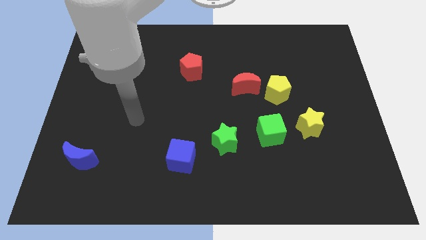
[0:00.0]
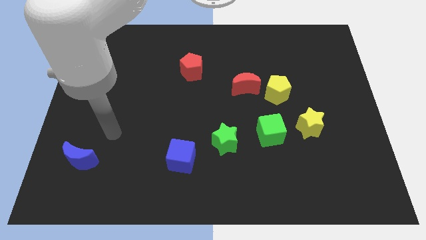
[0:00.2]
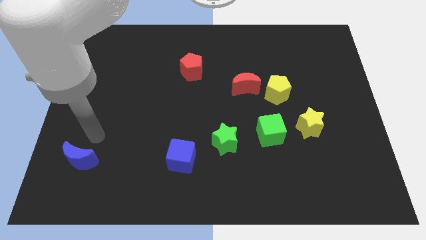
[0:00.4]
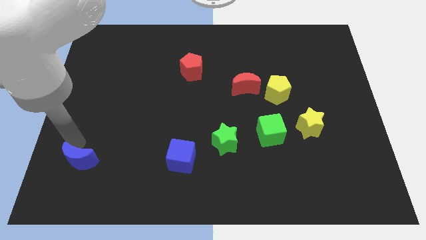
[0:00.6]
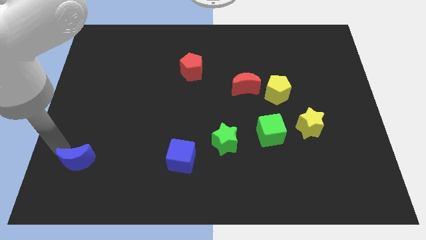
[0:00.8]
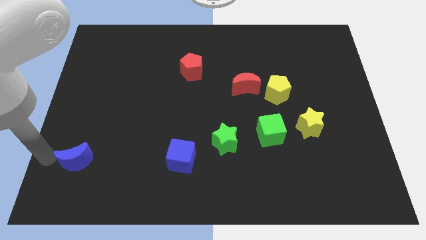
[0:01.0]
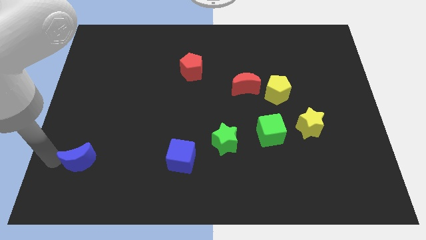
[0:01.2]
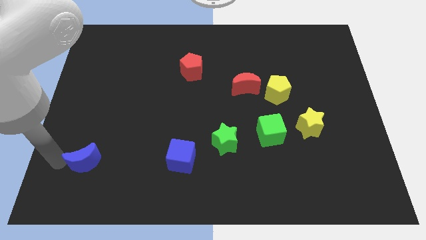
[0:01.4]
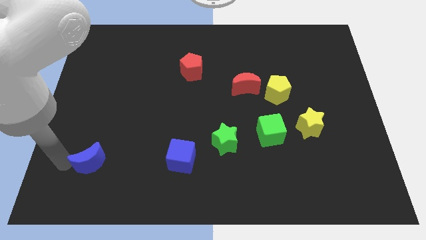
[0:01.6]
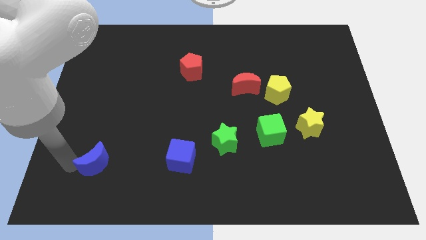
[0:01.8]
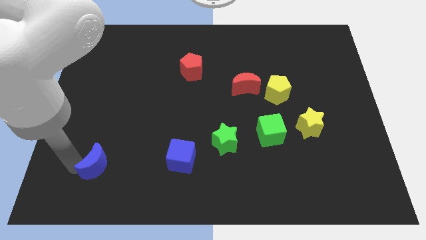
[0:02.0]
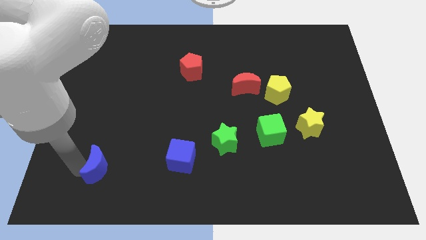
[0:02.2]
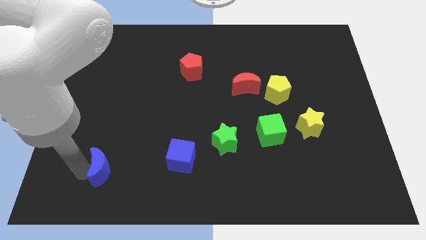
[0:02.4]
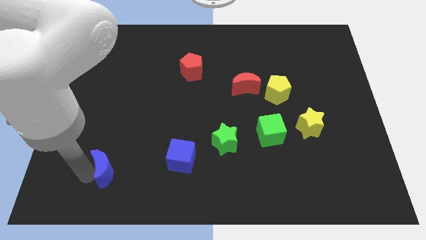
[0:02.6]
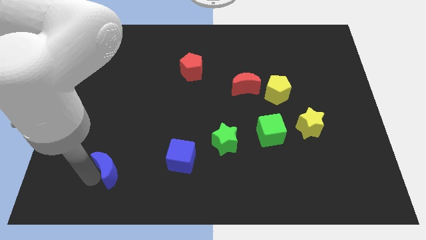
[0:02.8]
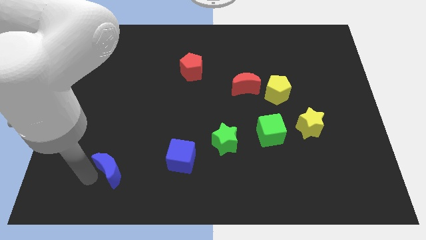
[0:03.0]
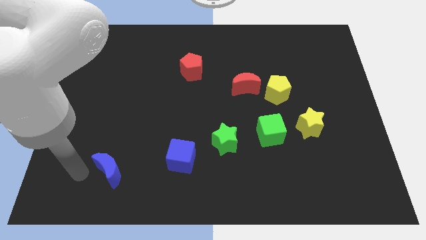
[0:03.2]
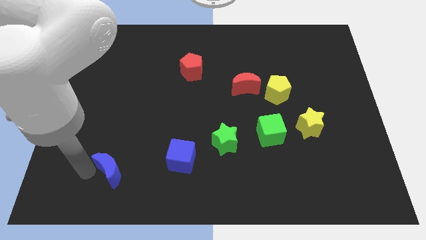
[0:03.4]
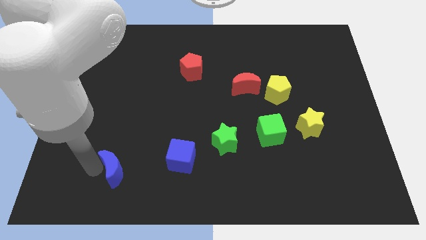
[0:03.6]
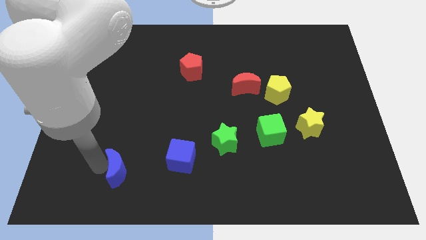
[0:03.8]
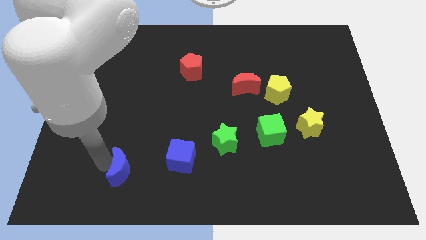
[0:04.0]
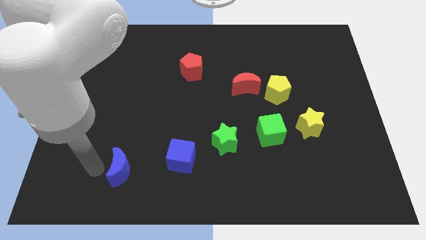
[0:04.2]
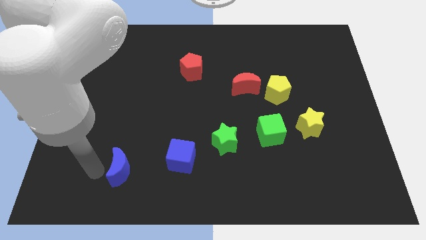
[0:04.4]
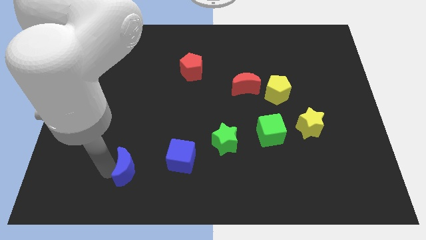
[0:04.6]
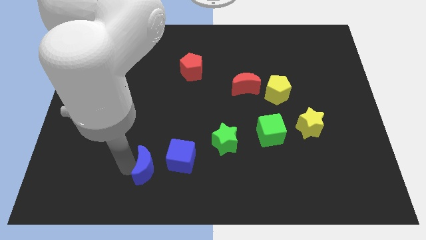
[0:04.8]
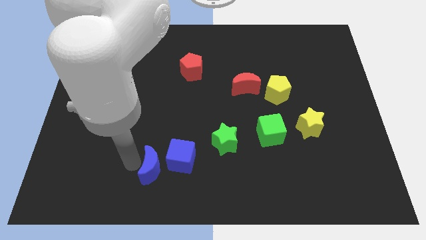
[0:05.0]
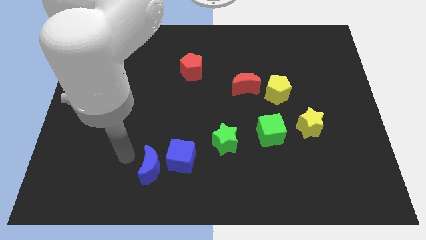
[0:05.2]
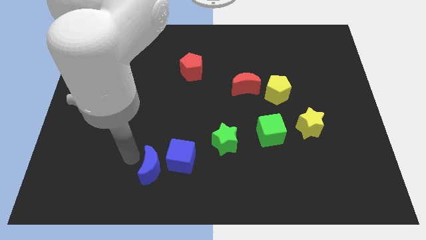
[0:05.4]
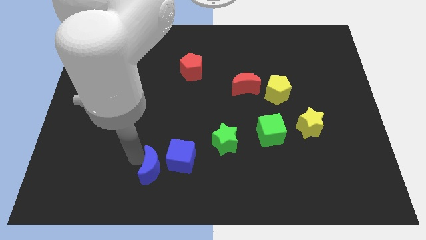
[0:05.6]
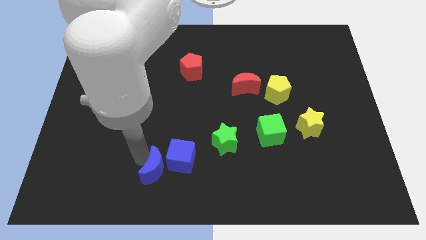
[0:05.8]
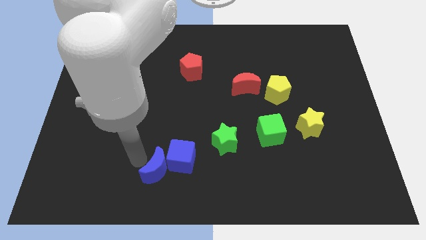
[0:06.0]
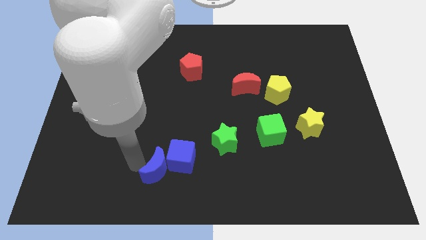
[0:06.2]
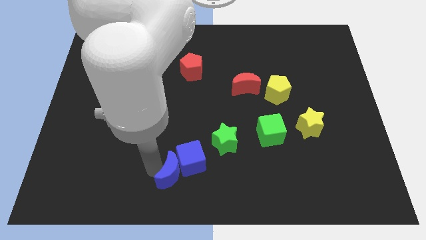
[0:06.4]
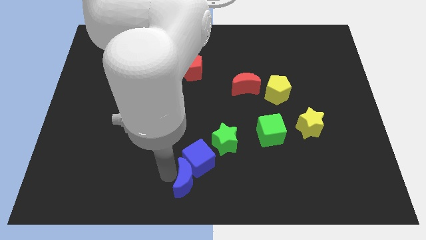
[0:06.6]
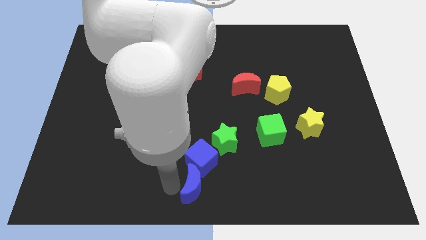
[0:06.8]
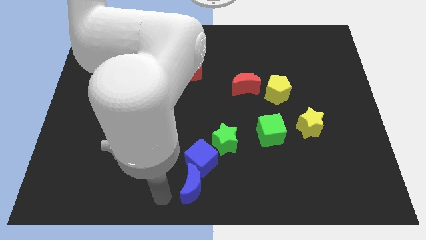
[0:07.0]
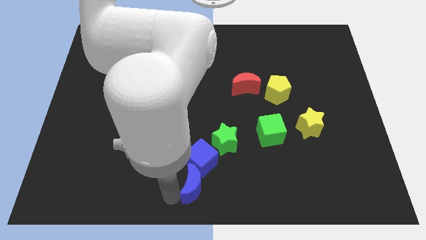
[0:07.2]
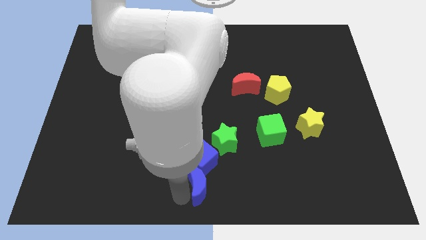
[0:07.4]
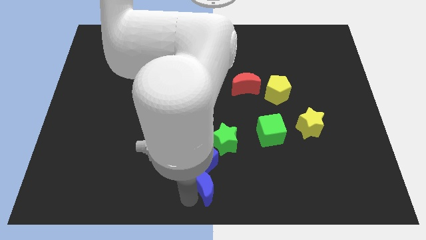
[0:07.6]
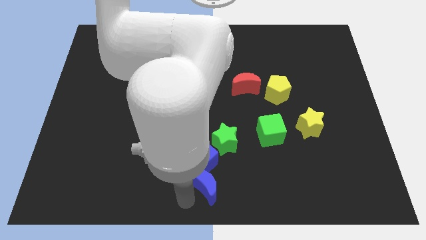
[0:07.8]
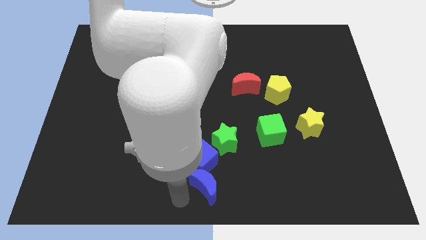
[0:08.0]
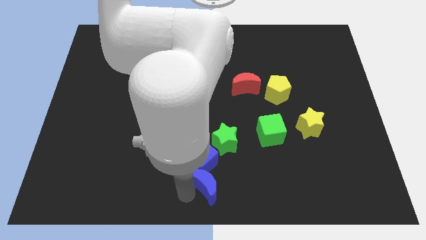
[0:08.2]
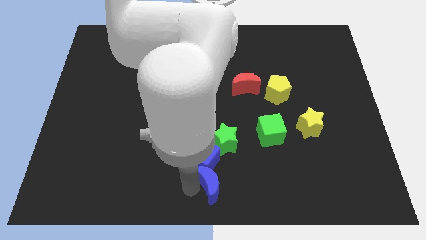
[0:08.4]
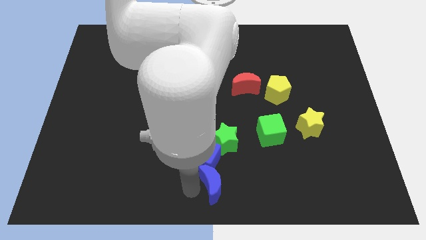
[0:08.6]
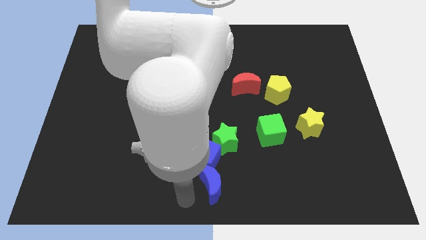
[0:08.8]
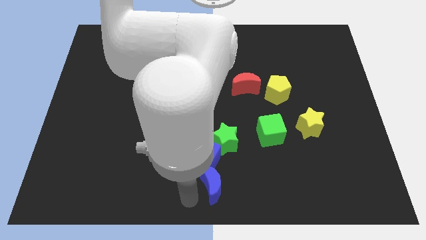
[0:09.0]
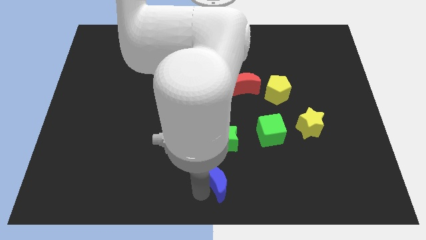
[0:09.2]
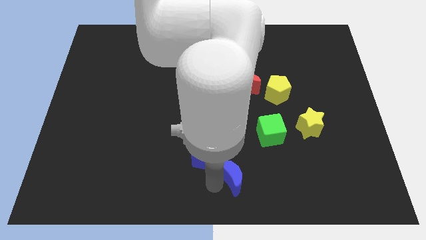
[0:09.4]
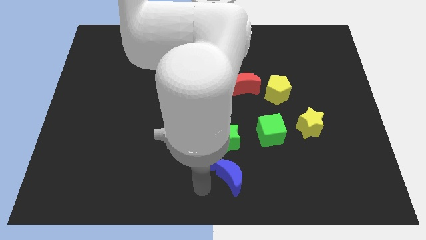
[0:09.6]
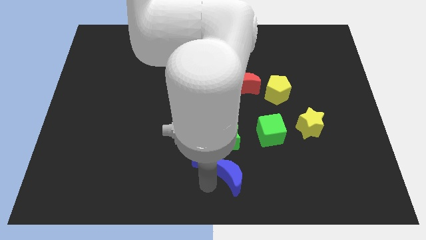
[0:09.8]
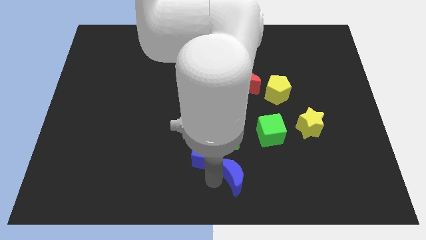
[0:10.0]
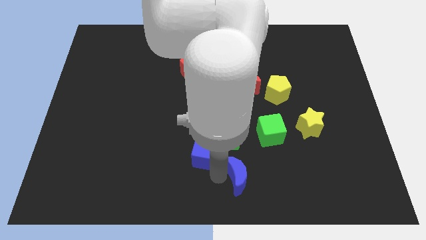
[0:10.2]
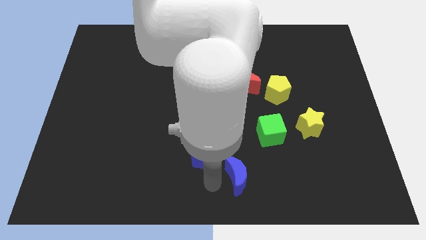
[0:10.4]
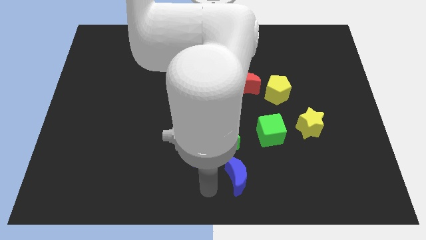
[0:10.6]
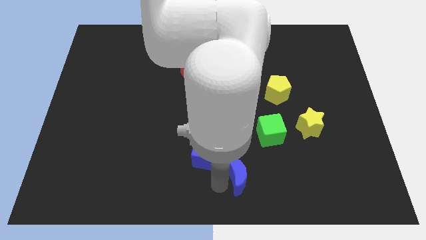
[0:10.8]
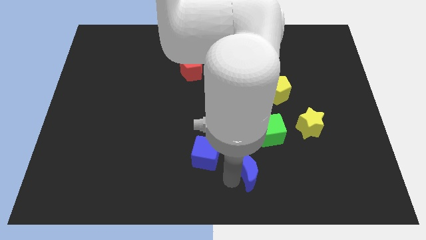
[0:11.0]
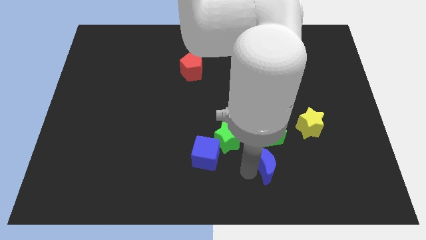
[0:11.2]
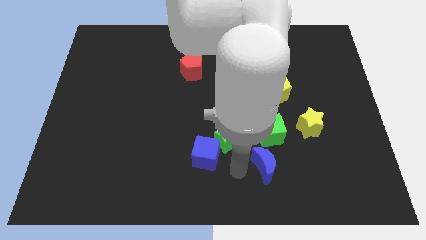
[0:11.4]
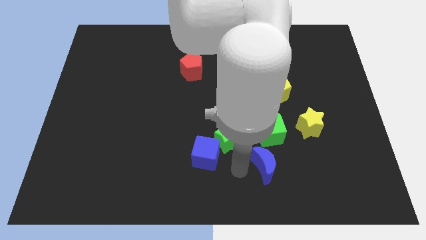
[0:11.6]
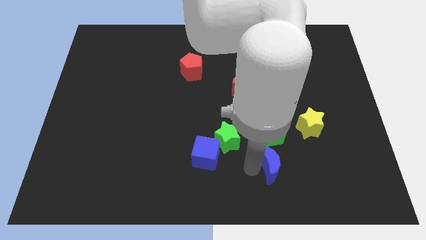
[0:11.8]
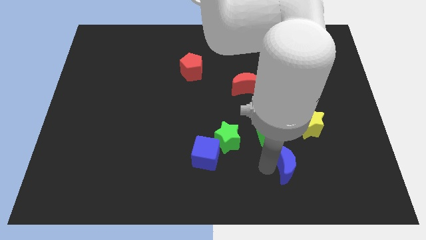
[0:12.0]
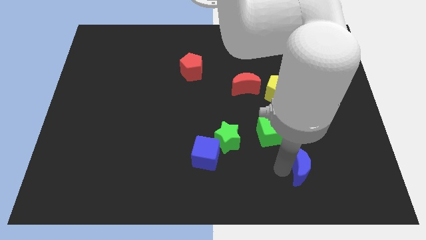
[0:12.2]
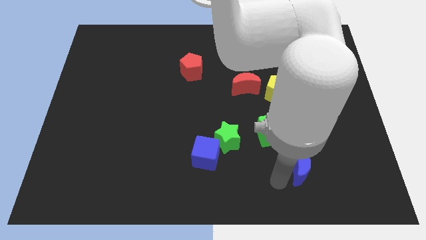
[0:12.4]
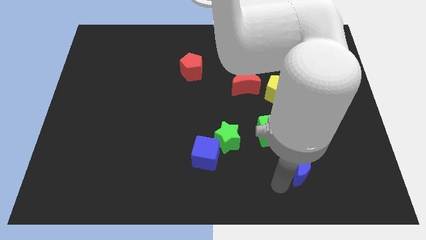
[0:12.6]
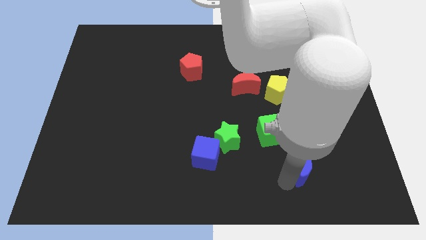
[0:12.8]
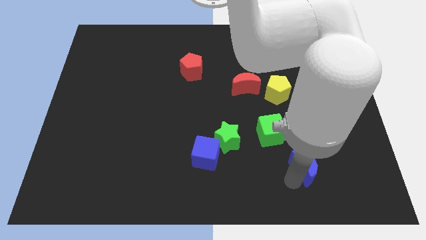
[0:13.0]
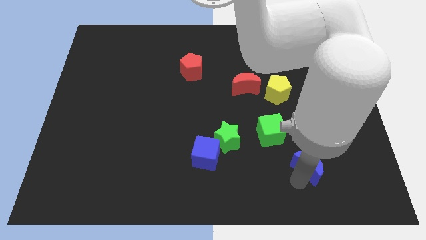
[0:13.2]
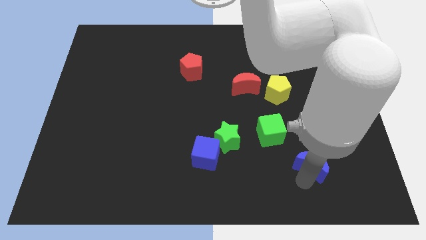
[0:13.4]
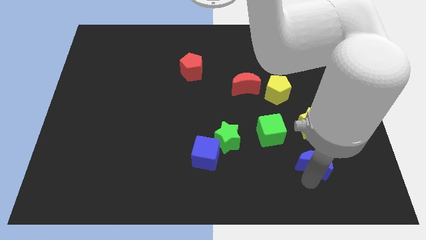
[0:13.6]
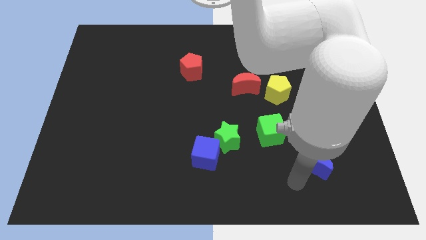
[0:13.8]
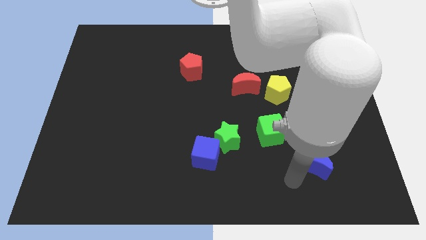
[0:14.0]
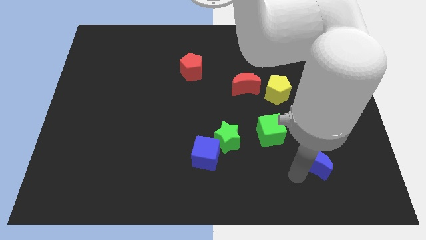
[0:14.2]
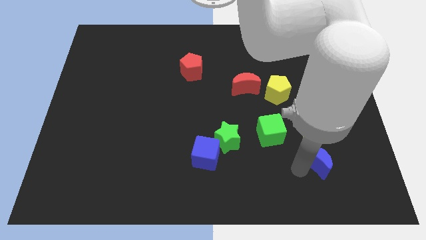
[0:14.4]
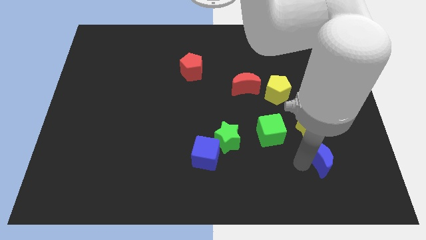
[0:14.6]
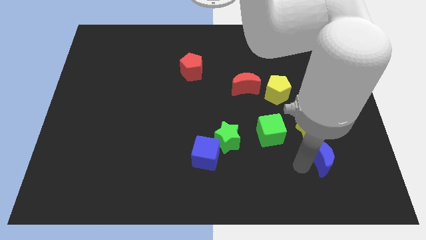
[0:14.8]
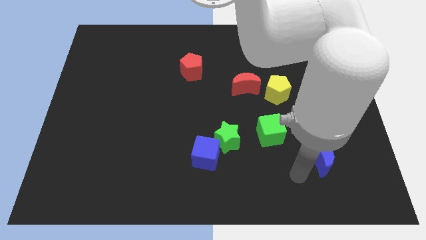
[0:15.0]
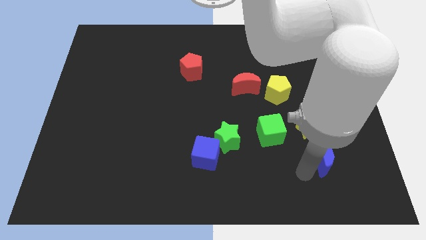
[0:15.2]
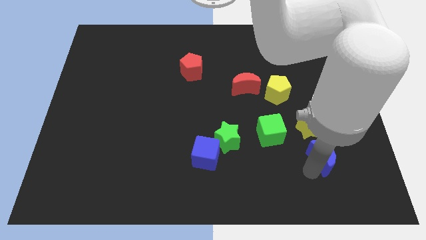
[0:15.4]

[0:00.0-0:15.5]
slide the blue moon to the bottom right of the yellow star
